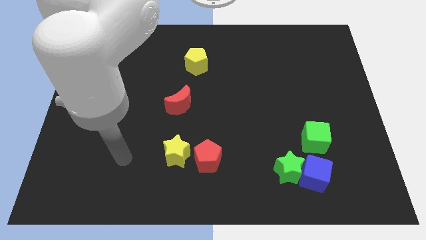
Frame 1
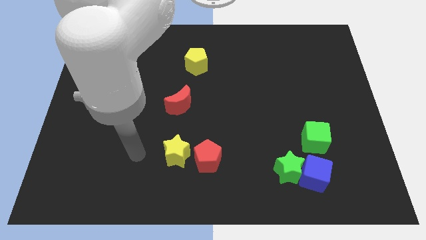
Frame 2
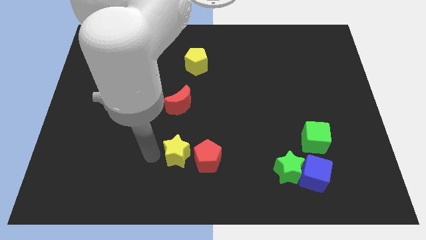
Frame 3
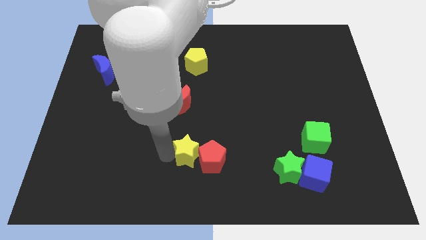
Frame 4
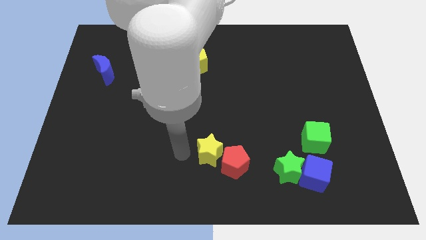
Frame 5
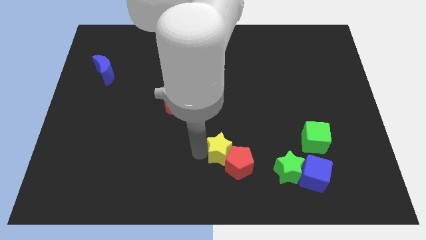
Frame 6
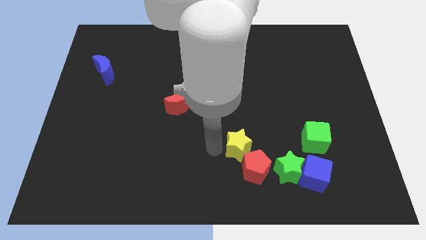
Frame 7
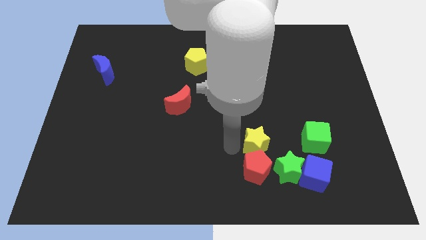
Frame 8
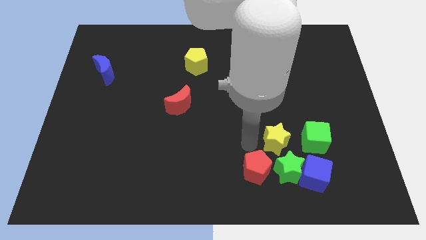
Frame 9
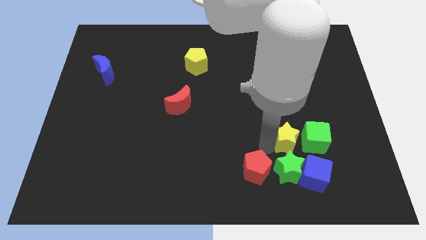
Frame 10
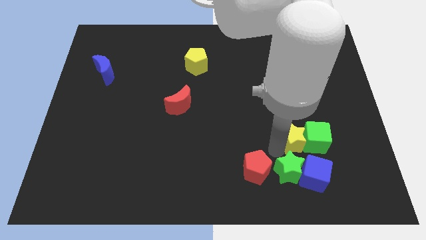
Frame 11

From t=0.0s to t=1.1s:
move the red pentagon away from the yellow star

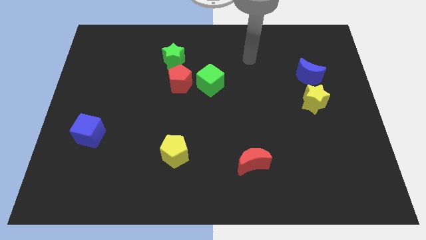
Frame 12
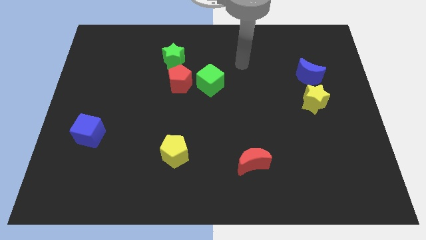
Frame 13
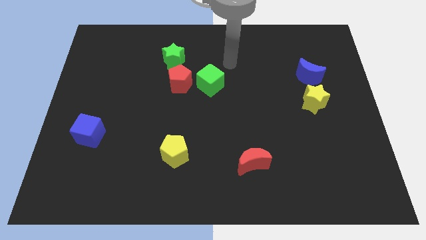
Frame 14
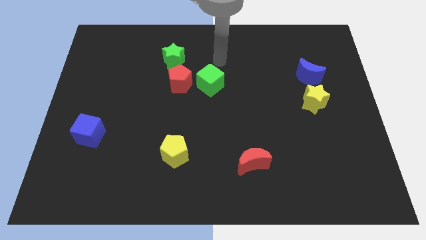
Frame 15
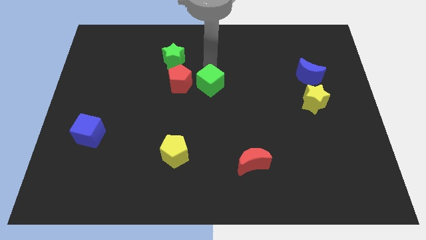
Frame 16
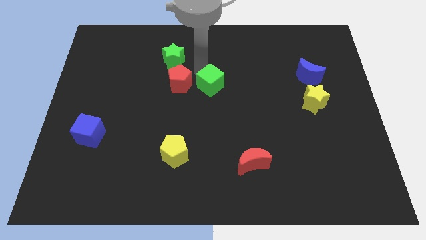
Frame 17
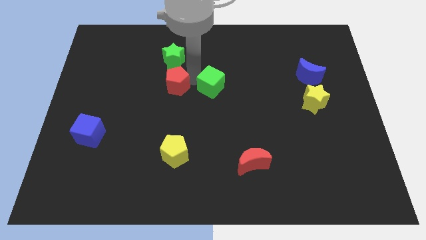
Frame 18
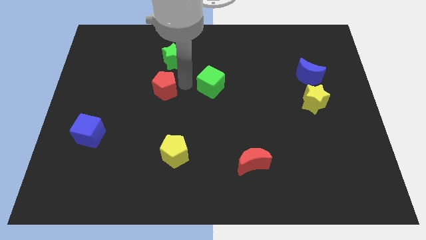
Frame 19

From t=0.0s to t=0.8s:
pull the green cube apart from the red pentagon

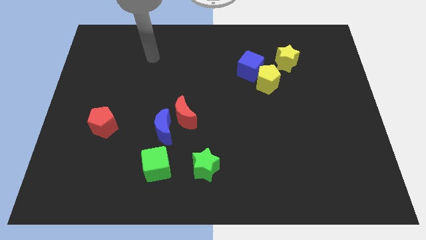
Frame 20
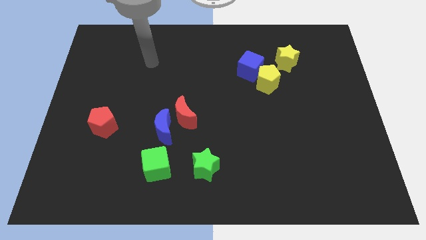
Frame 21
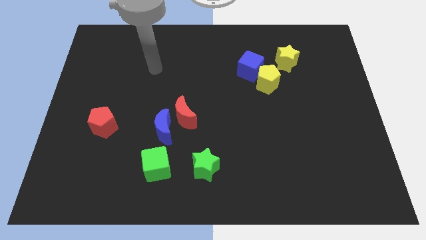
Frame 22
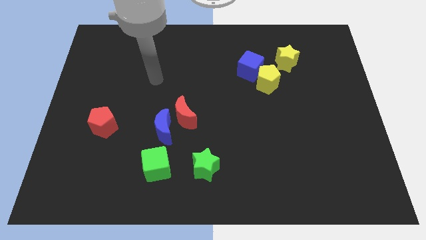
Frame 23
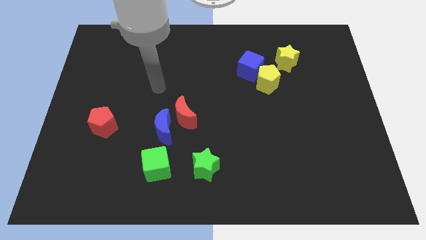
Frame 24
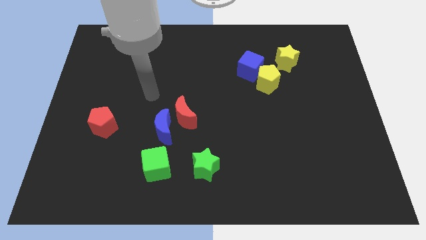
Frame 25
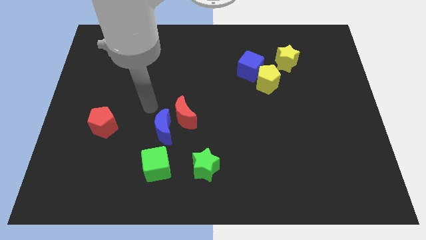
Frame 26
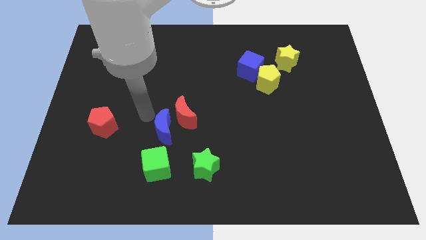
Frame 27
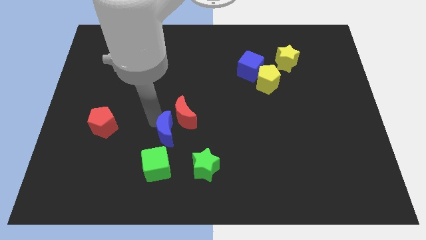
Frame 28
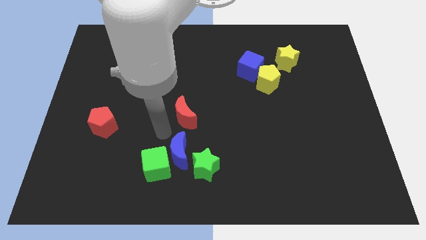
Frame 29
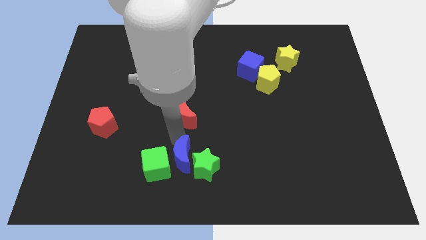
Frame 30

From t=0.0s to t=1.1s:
pull the red moon apart from the blue moon

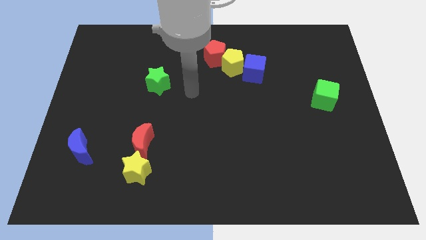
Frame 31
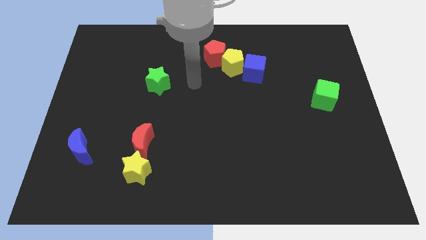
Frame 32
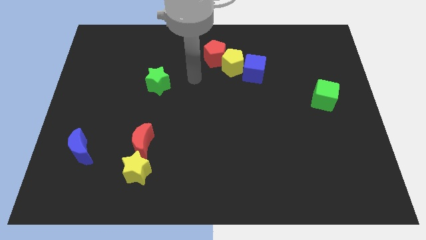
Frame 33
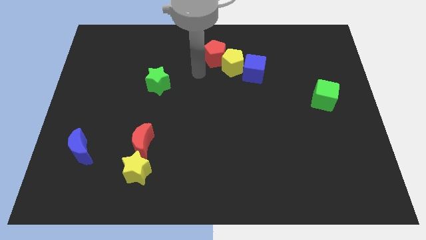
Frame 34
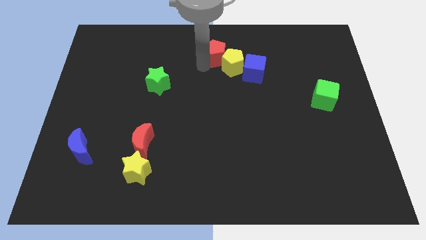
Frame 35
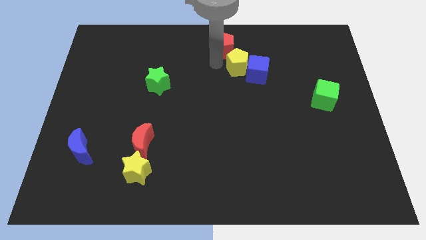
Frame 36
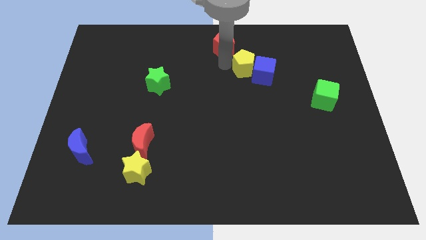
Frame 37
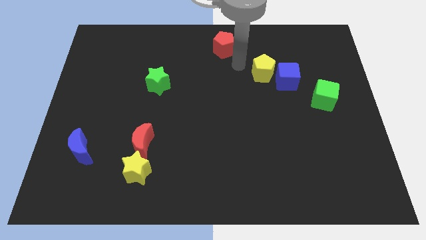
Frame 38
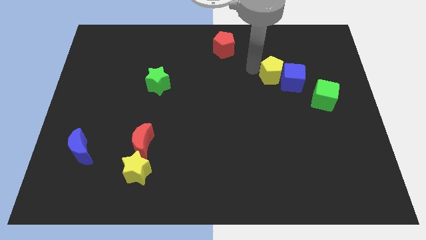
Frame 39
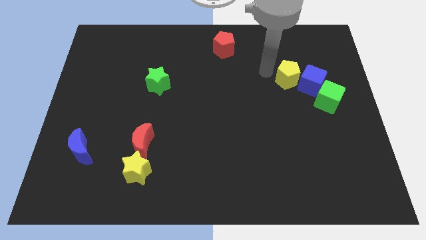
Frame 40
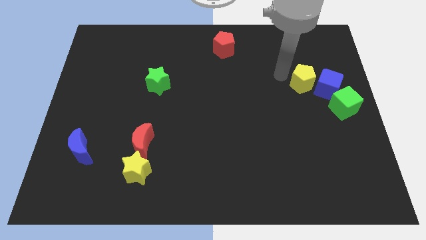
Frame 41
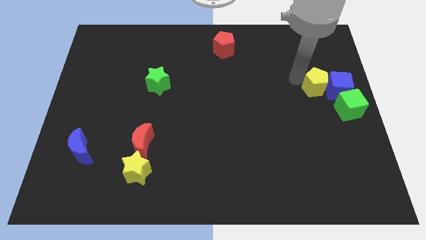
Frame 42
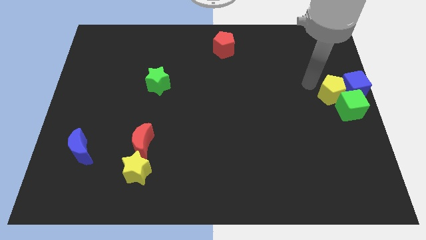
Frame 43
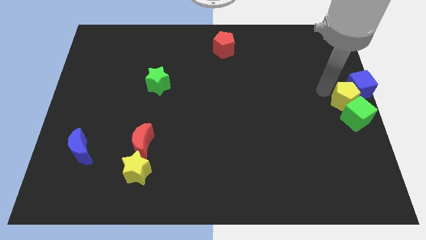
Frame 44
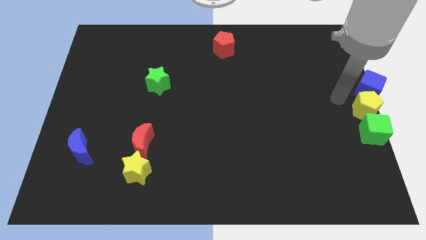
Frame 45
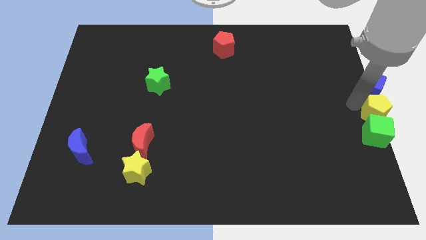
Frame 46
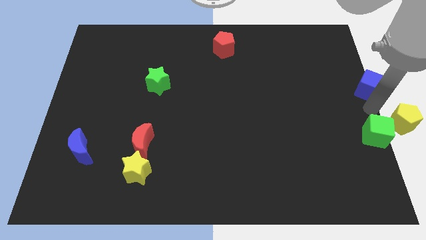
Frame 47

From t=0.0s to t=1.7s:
separate the blue cube from the yellow pentagon

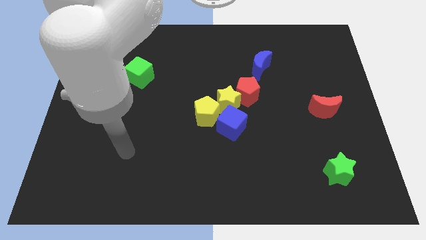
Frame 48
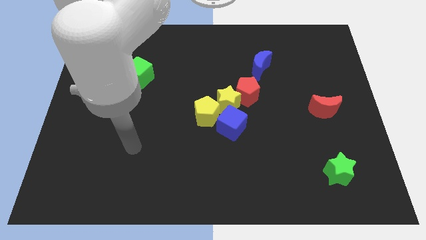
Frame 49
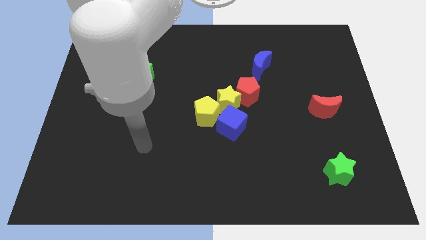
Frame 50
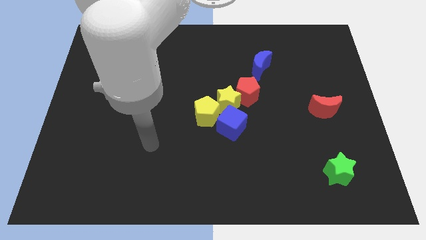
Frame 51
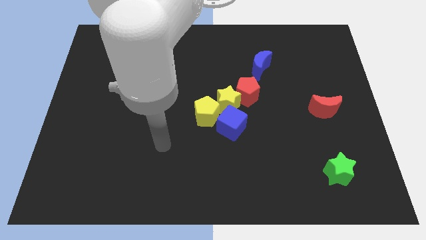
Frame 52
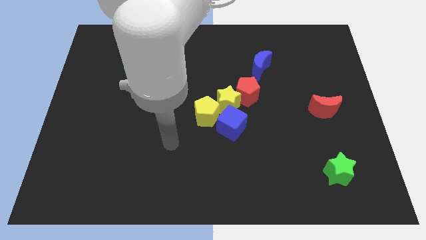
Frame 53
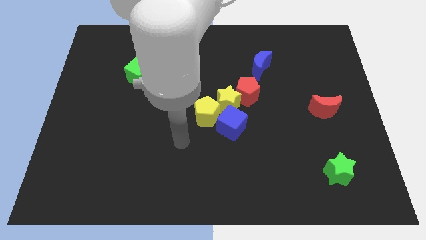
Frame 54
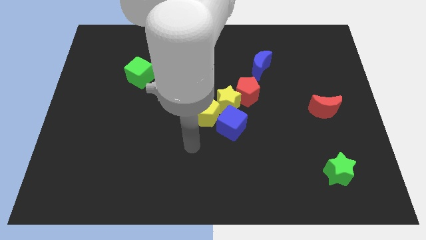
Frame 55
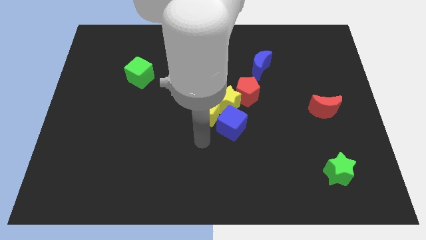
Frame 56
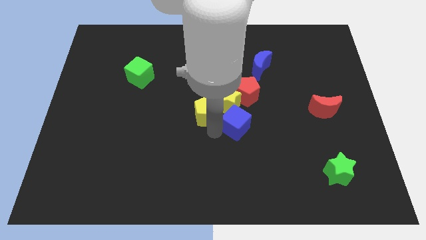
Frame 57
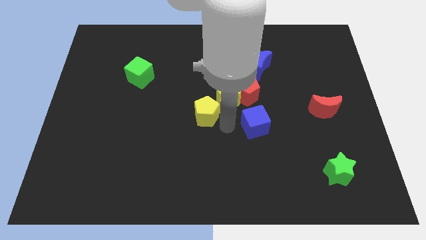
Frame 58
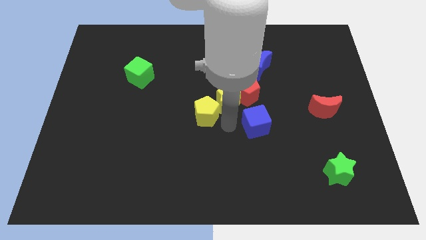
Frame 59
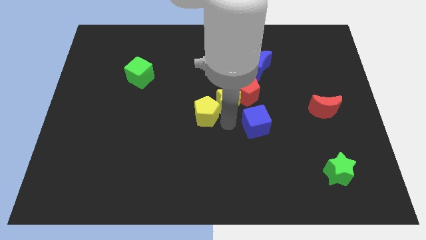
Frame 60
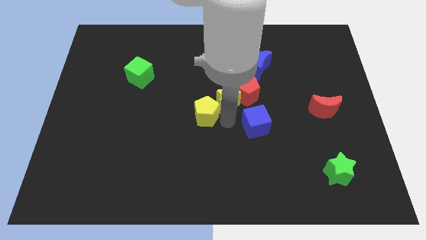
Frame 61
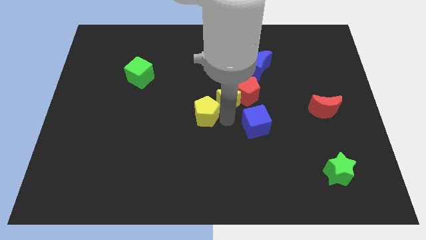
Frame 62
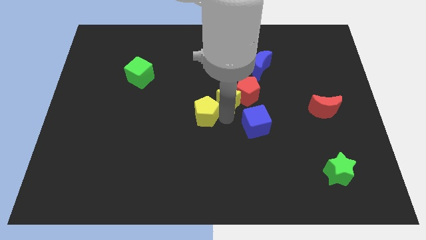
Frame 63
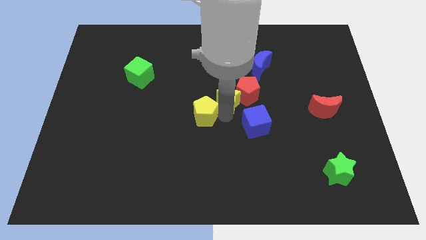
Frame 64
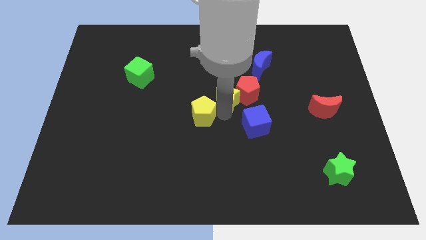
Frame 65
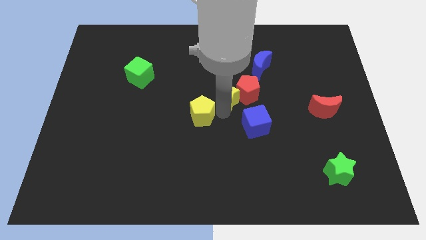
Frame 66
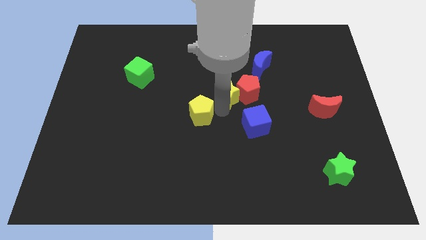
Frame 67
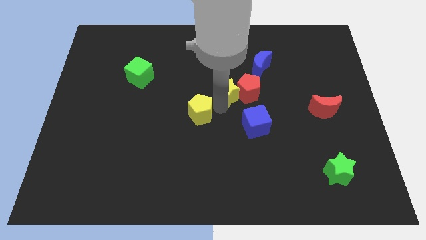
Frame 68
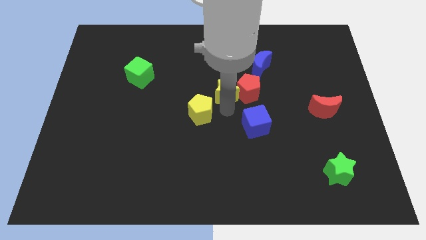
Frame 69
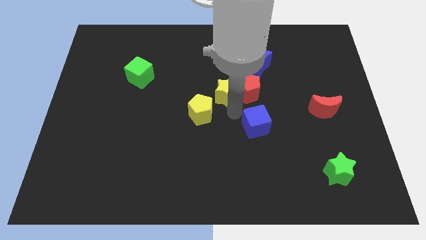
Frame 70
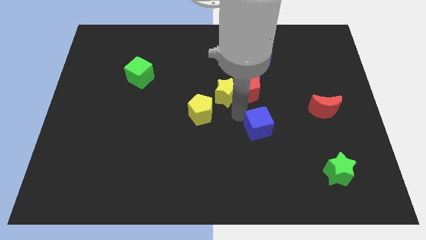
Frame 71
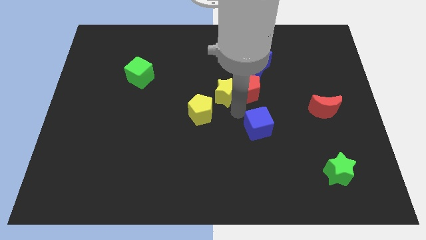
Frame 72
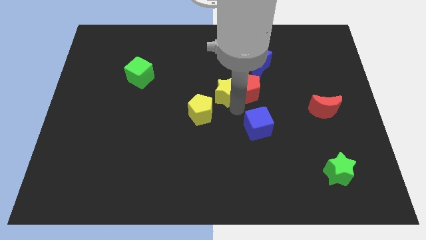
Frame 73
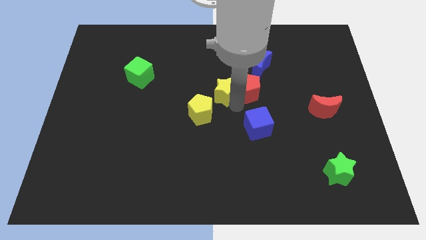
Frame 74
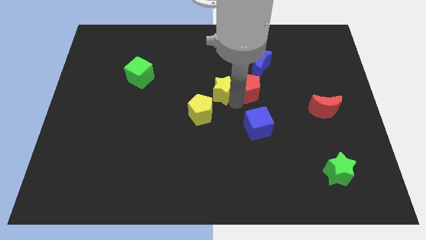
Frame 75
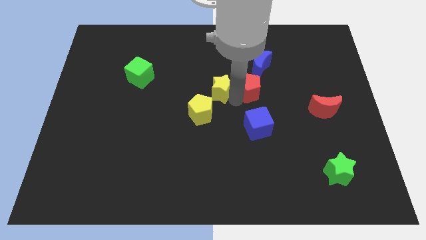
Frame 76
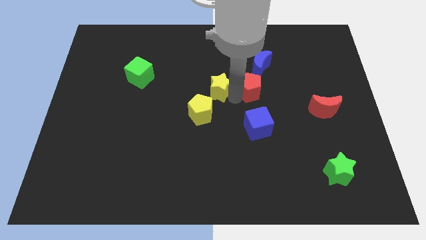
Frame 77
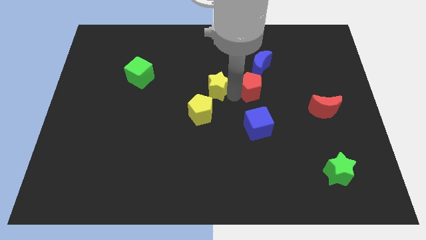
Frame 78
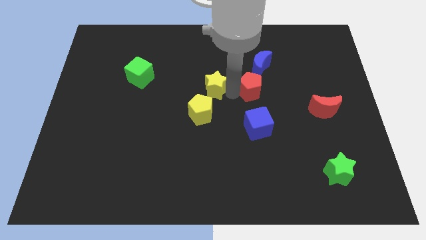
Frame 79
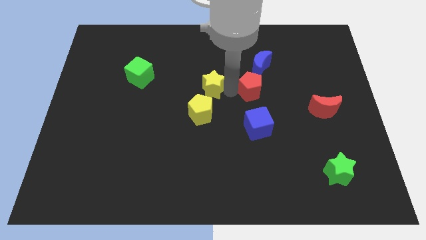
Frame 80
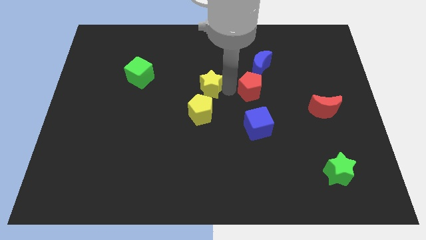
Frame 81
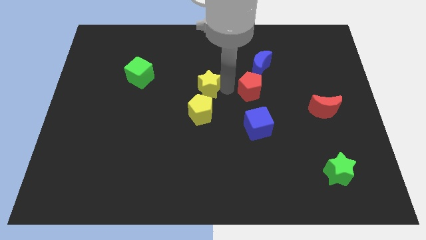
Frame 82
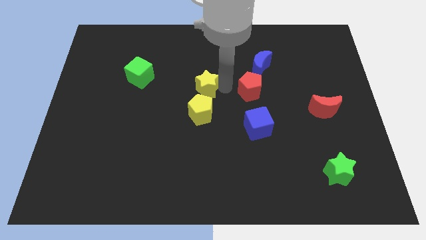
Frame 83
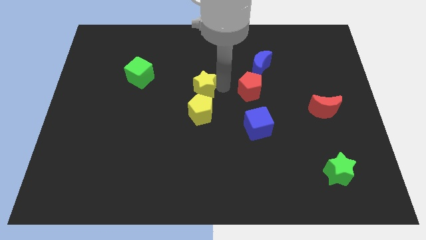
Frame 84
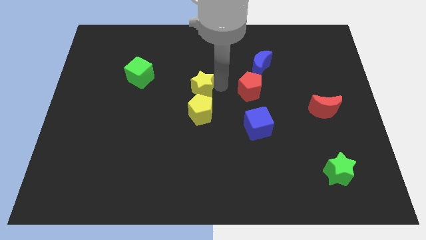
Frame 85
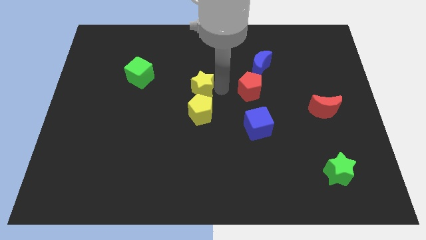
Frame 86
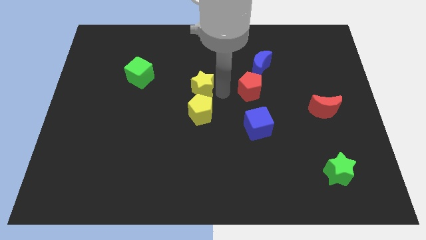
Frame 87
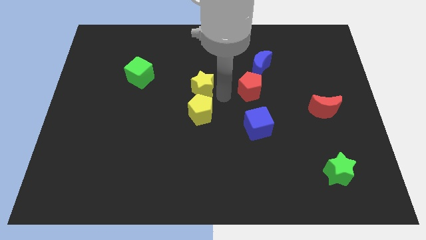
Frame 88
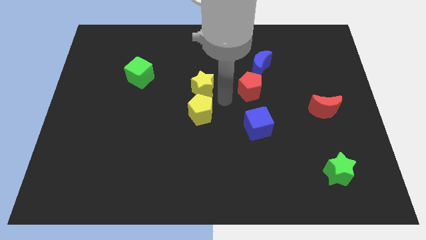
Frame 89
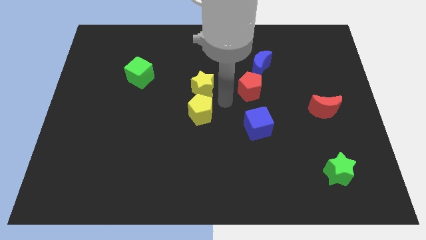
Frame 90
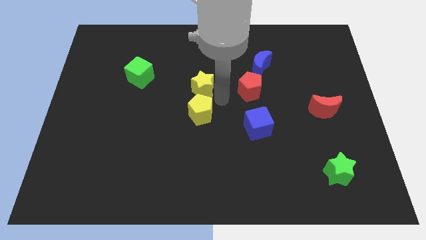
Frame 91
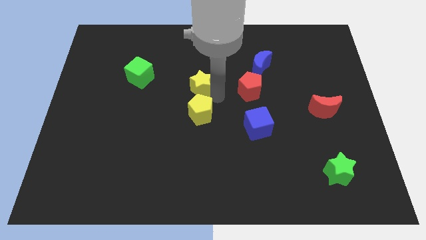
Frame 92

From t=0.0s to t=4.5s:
move the yellow star away from the red pentagon, yellow pentagon, and blue cube

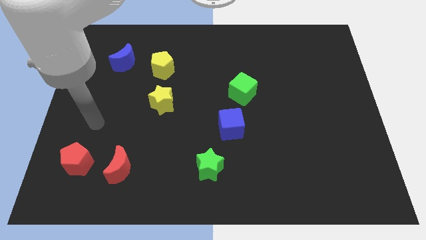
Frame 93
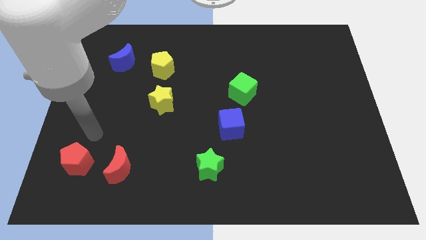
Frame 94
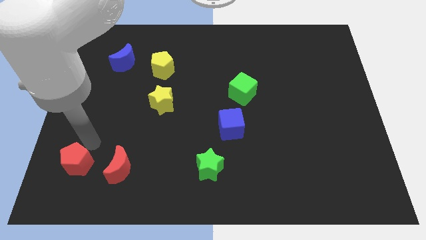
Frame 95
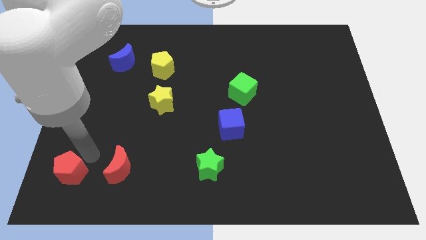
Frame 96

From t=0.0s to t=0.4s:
separate the red moon from the red pentagon
